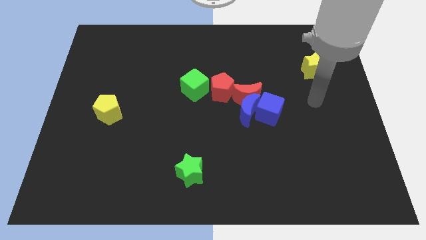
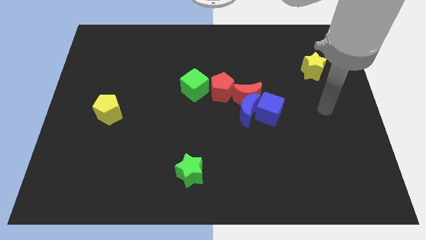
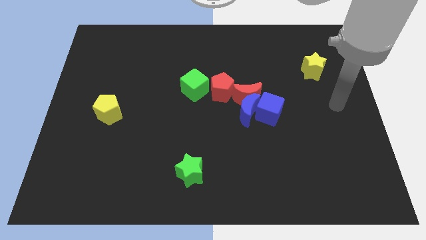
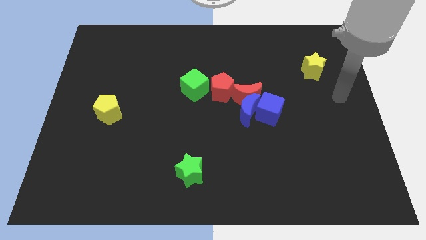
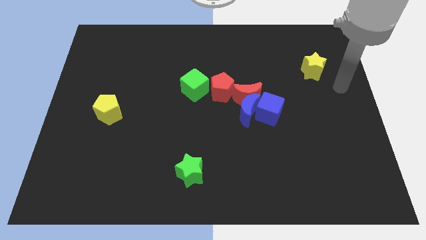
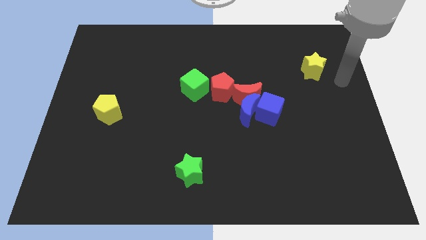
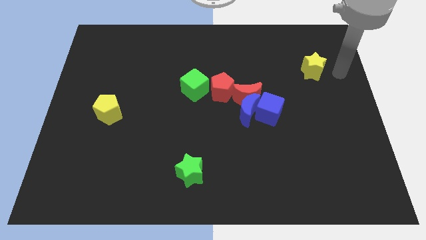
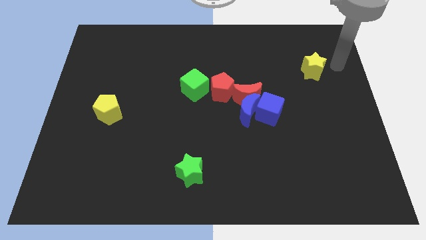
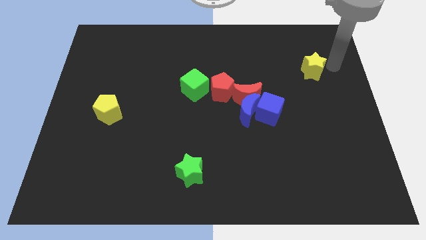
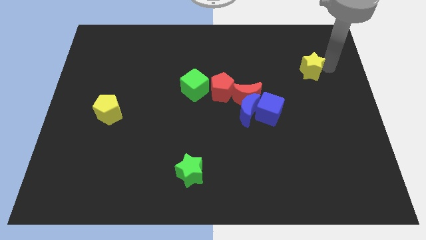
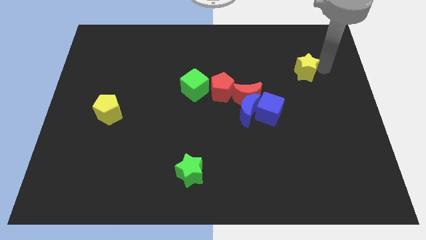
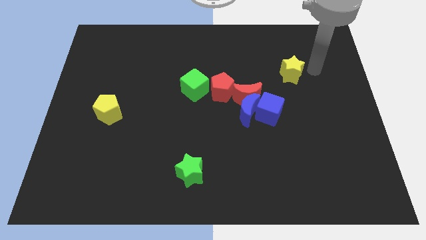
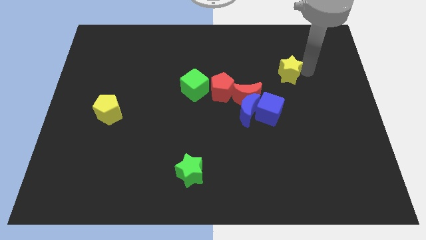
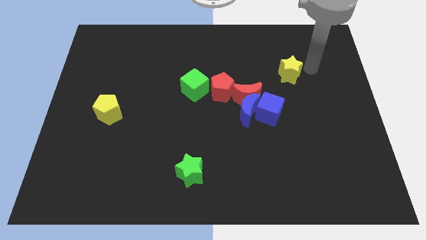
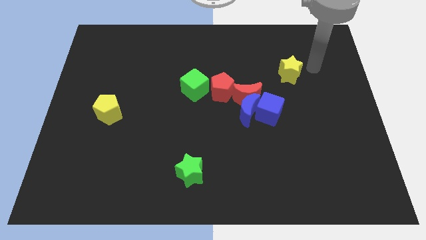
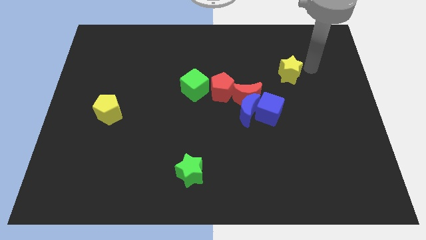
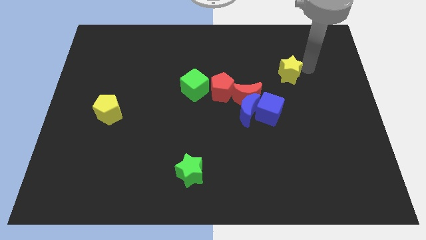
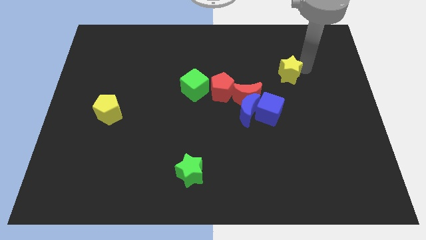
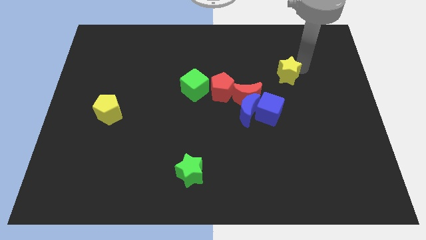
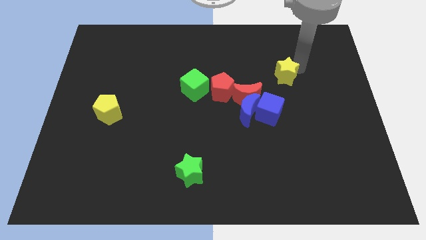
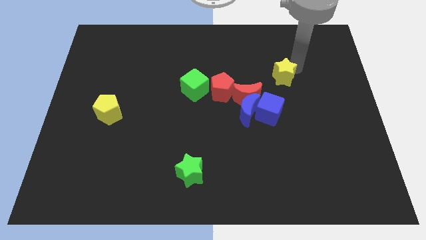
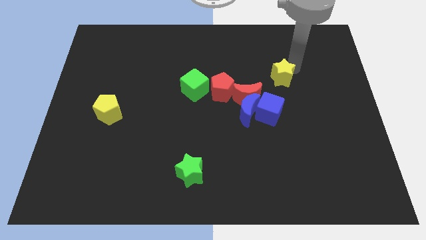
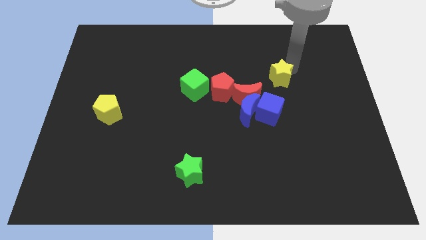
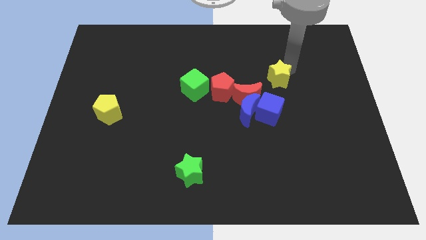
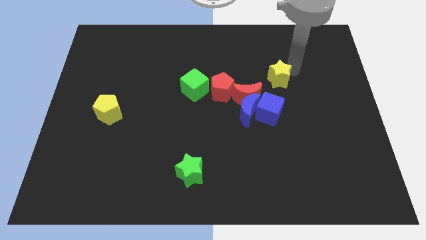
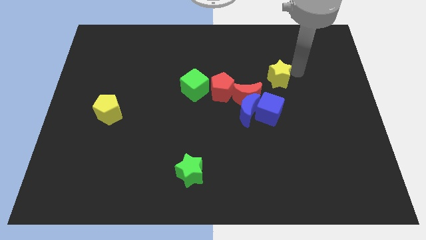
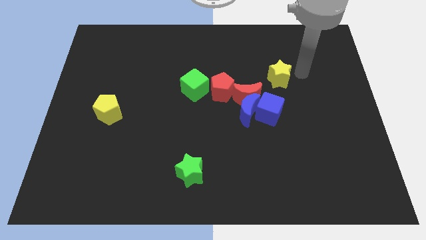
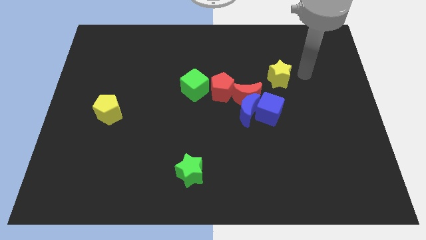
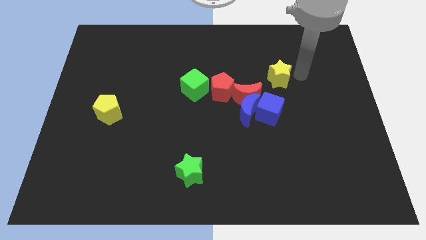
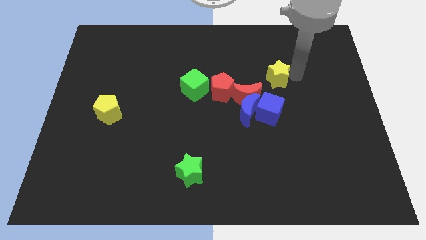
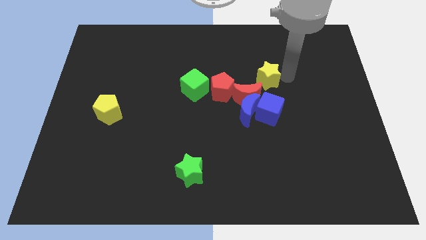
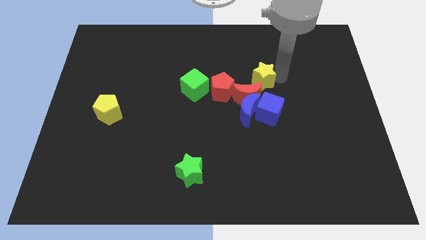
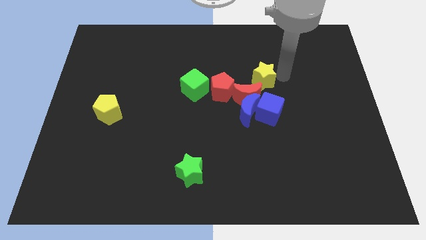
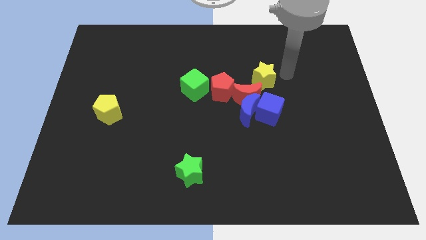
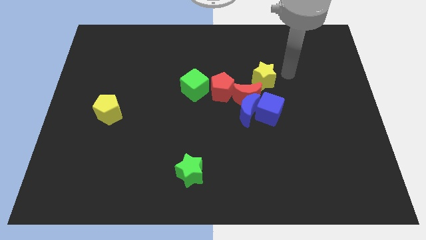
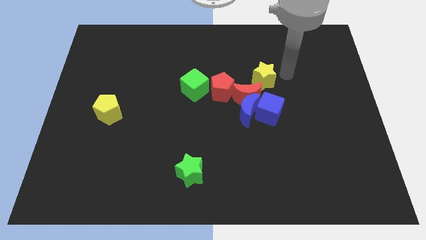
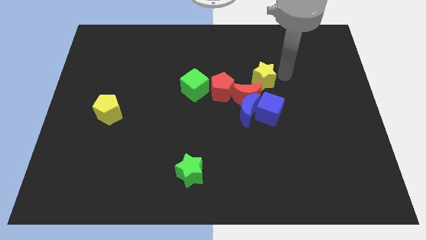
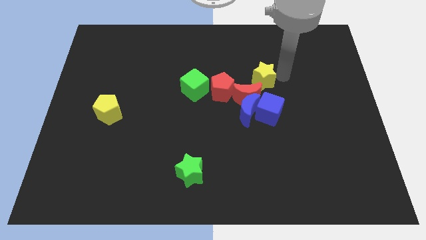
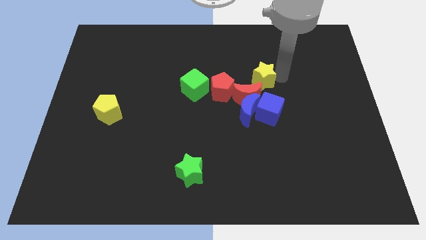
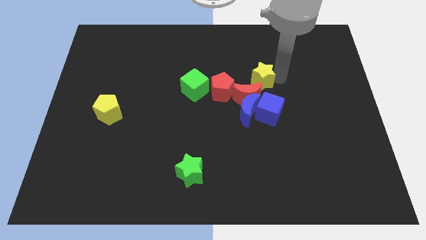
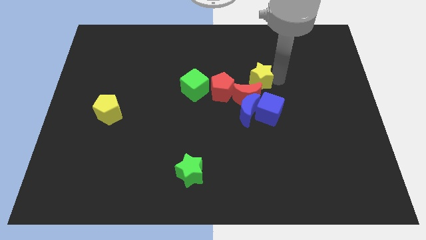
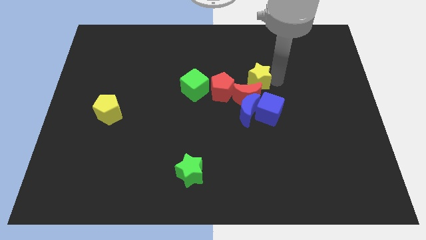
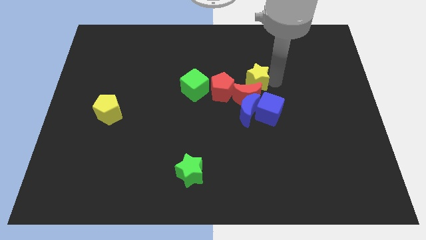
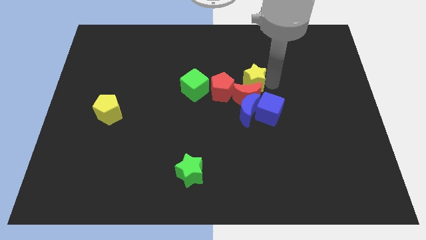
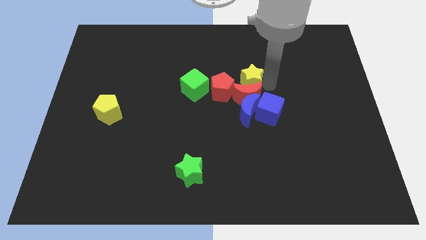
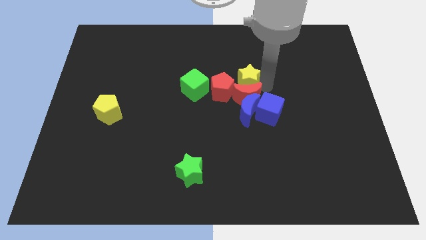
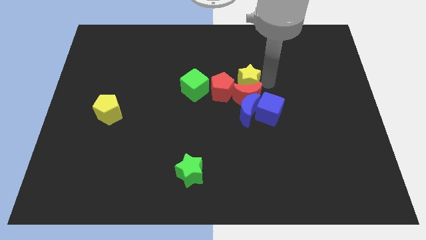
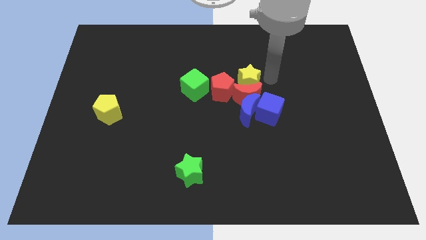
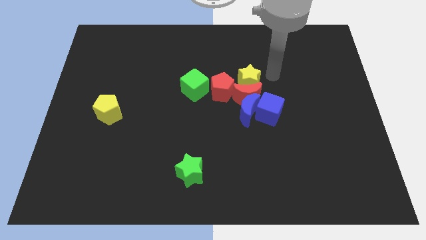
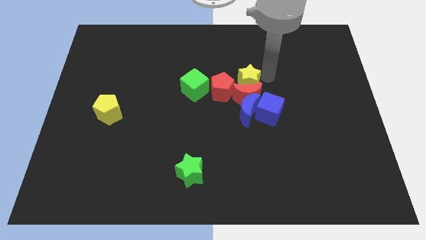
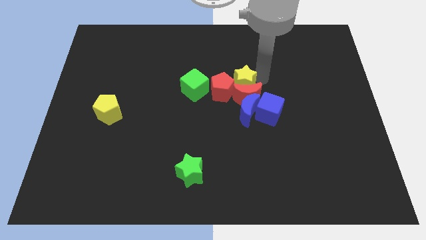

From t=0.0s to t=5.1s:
slide the yellow star towards the red pentagon

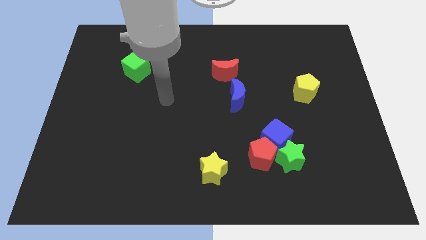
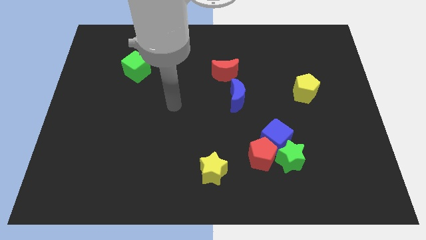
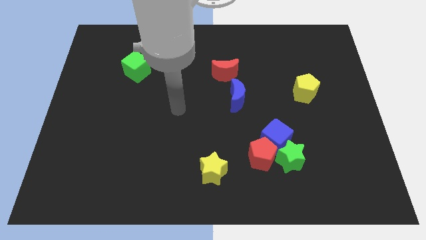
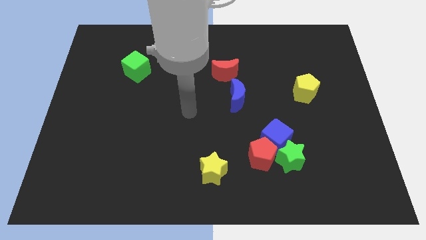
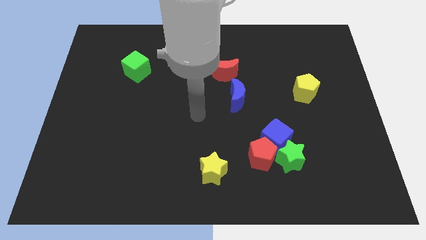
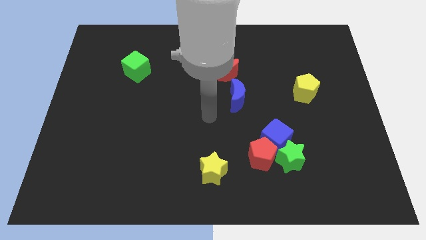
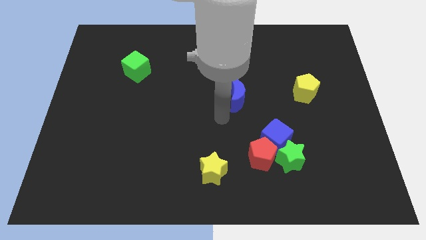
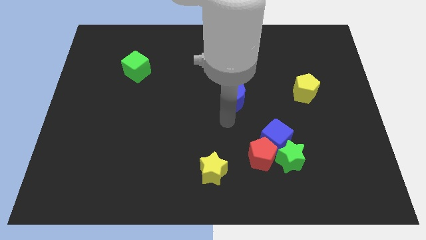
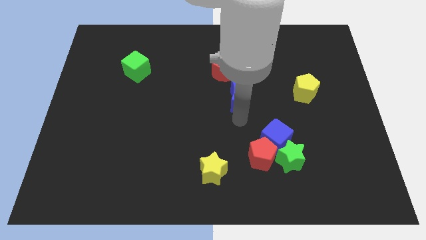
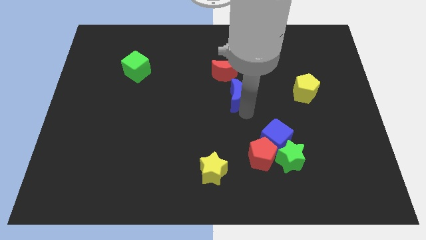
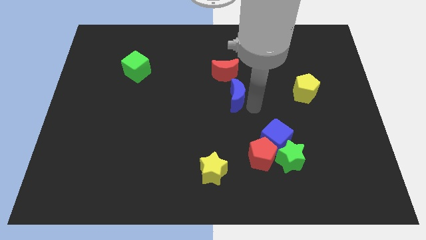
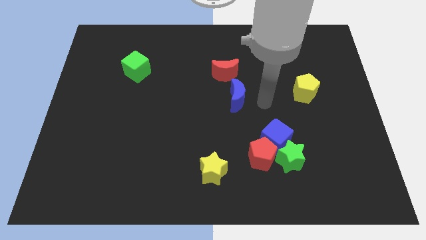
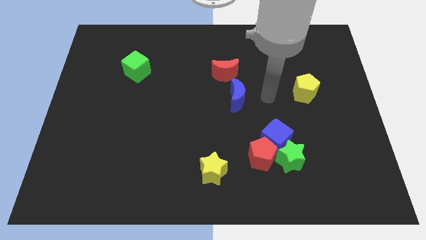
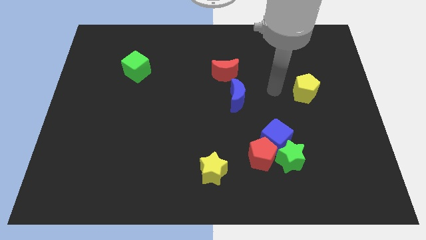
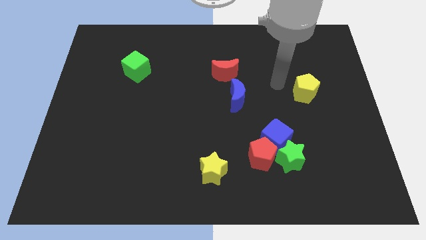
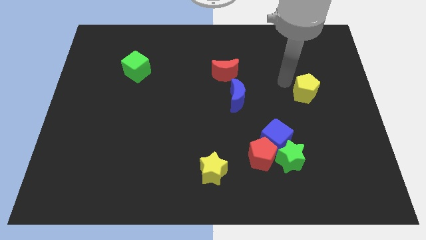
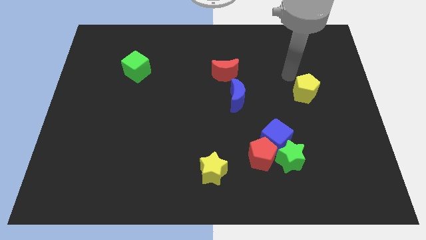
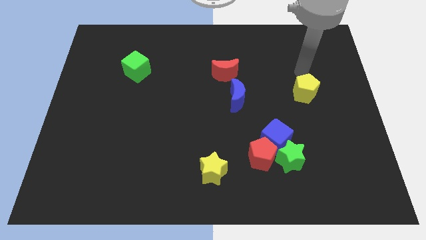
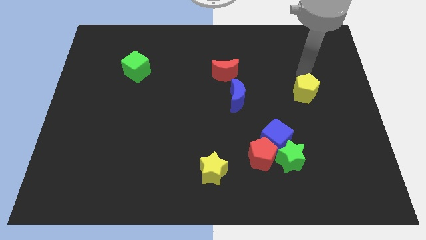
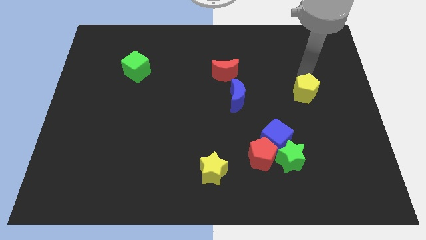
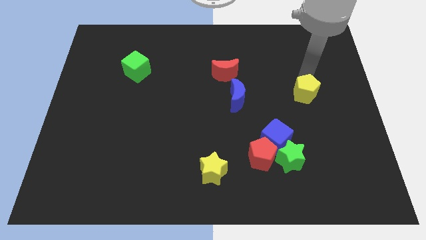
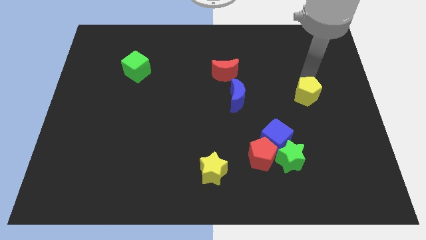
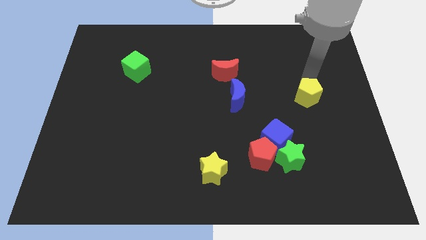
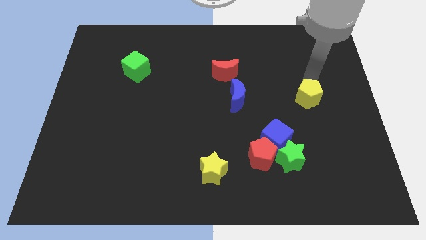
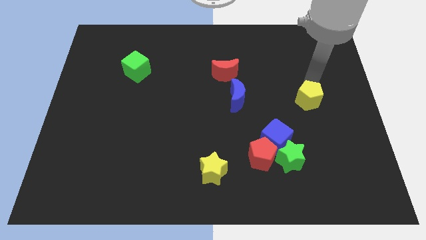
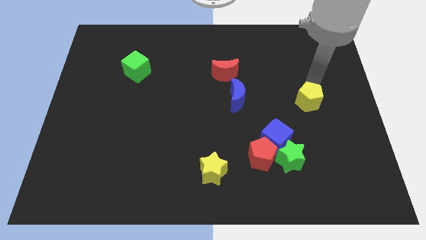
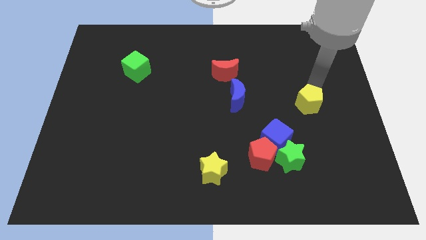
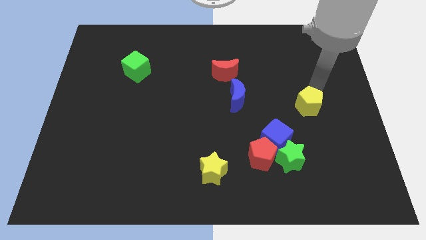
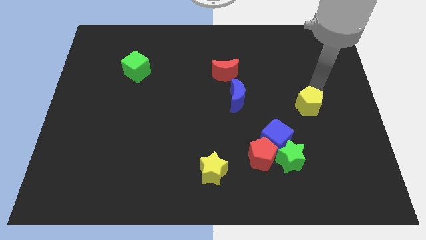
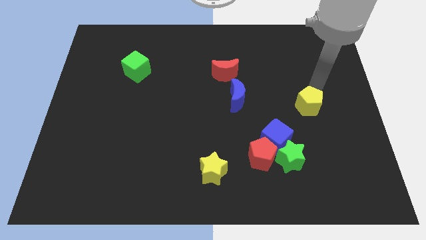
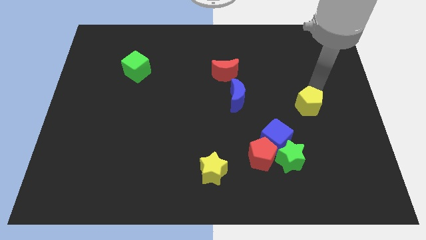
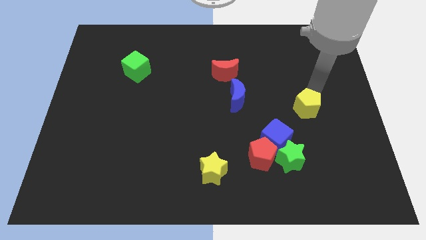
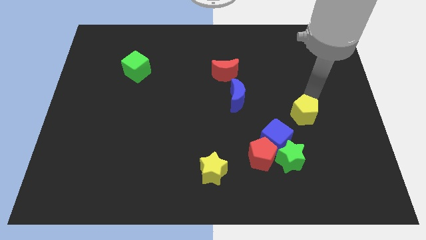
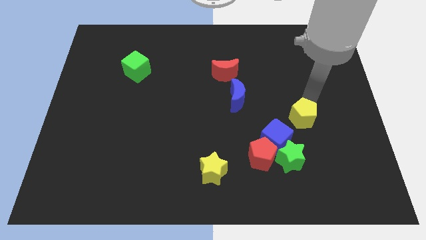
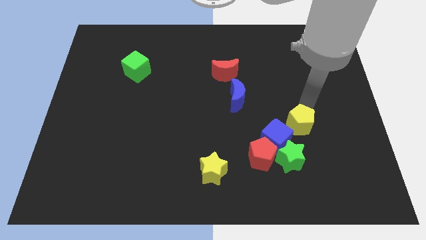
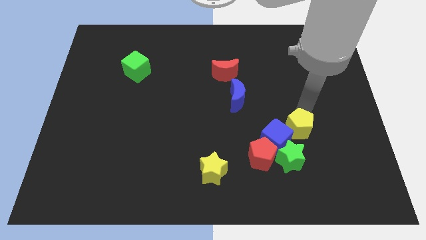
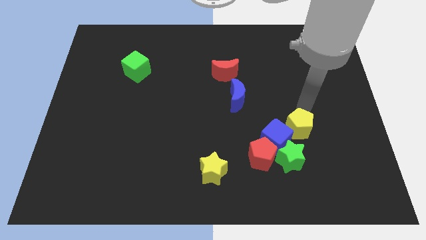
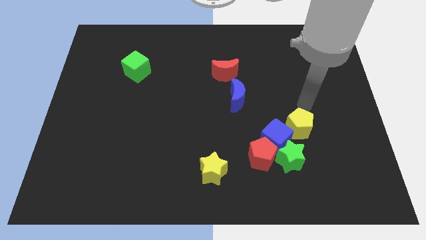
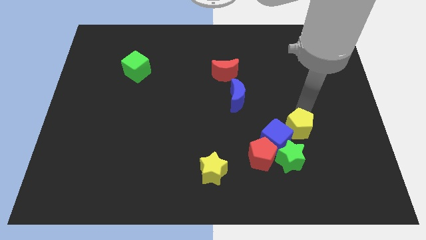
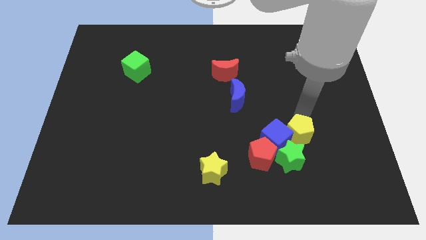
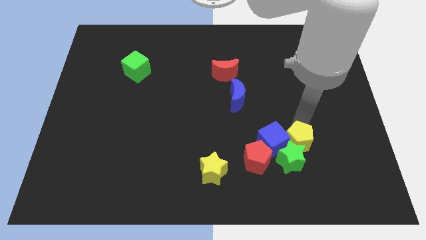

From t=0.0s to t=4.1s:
move the yellow pentagon towards the green star
